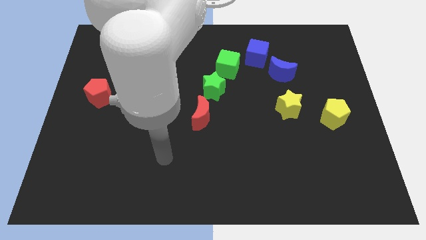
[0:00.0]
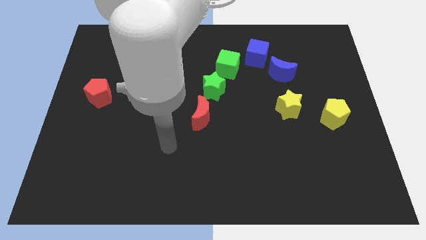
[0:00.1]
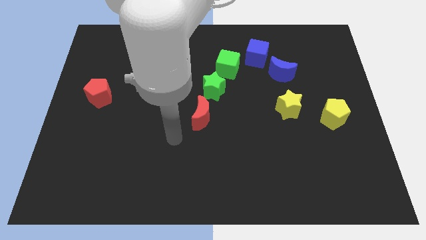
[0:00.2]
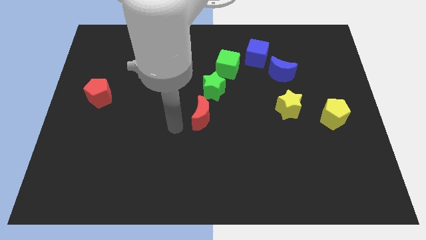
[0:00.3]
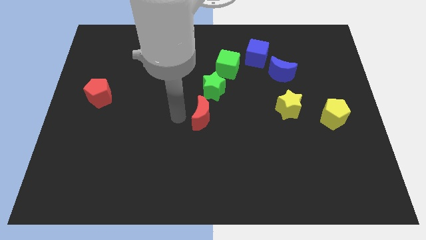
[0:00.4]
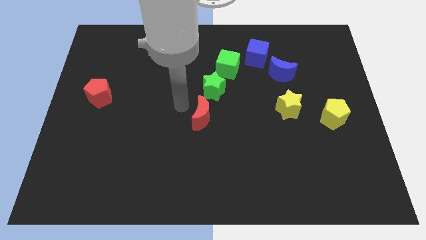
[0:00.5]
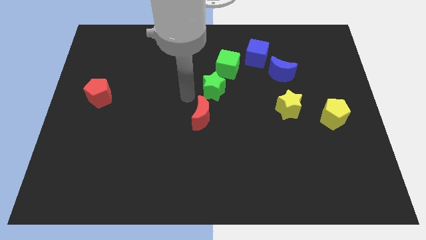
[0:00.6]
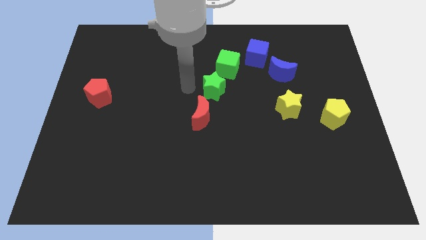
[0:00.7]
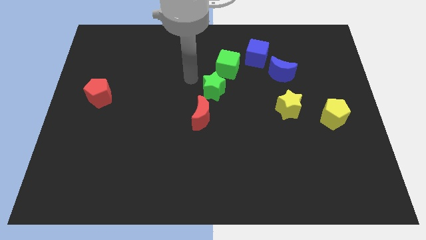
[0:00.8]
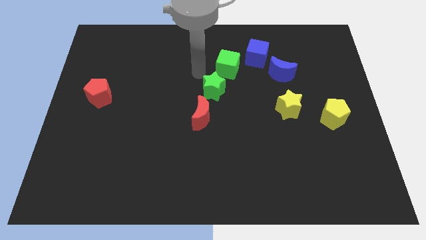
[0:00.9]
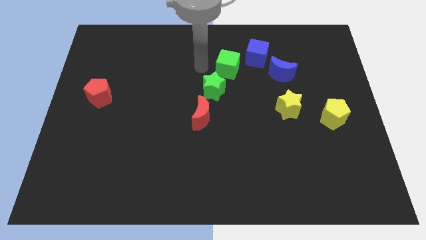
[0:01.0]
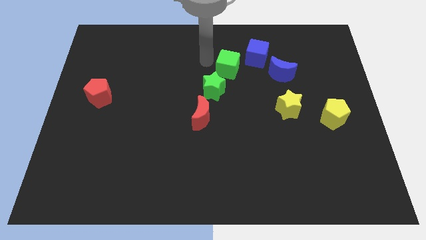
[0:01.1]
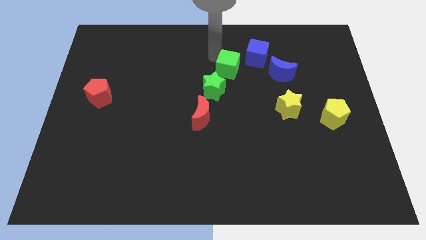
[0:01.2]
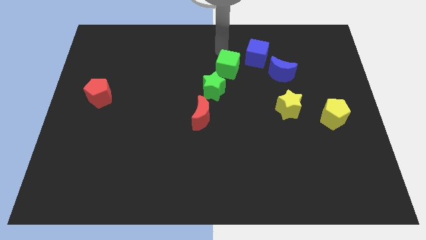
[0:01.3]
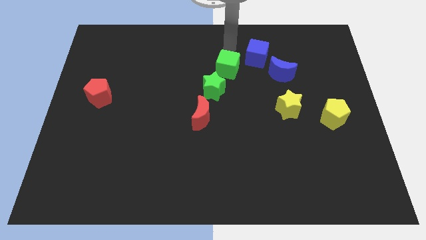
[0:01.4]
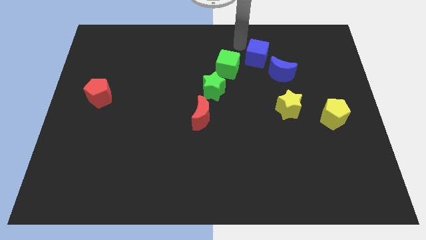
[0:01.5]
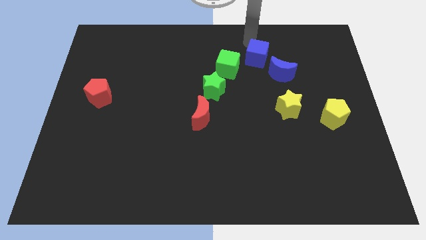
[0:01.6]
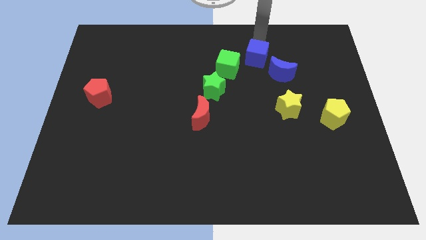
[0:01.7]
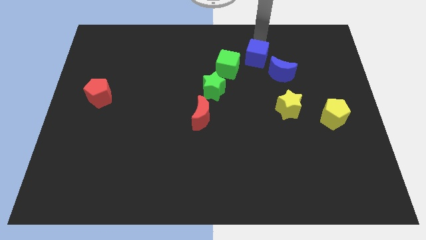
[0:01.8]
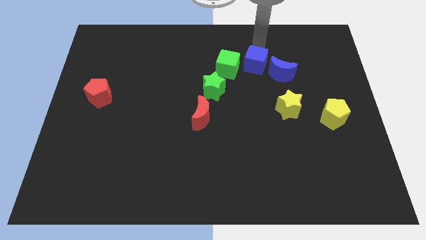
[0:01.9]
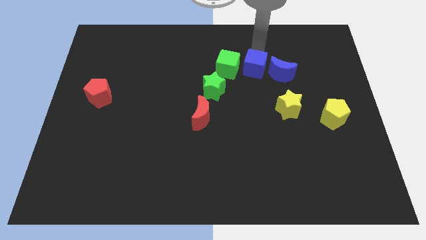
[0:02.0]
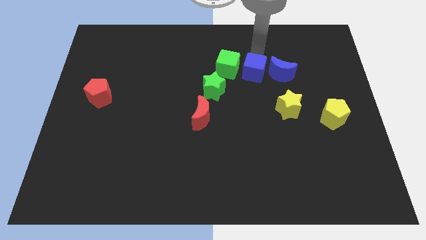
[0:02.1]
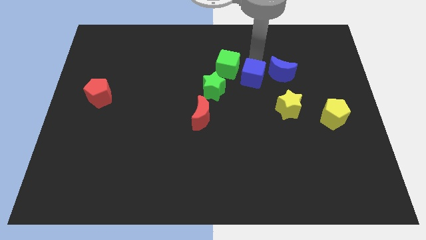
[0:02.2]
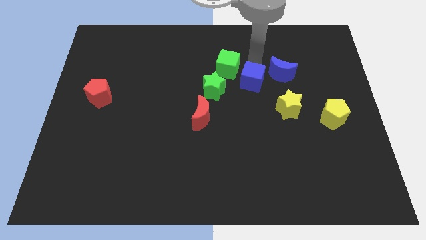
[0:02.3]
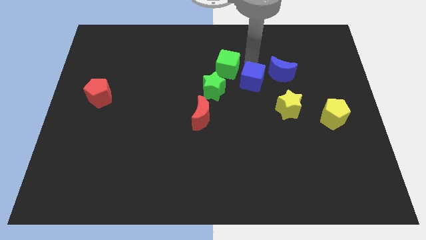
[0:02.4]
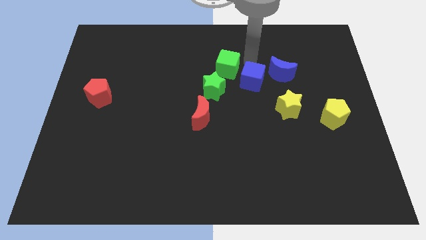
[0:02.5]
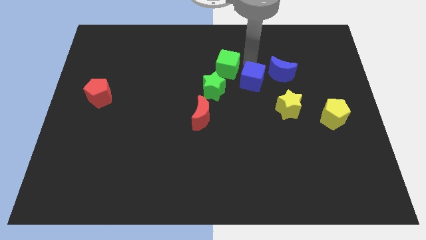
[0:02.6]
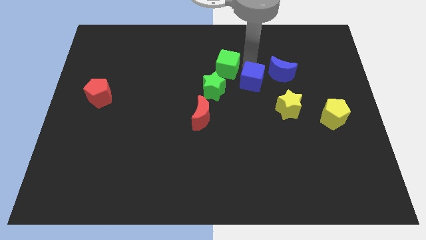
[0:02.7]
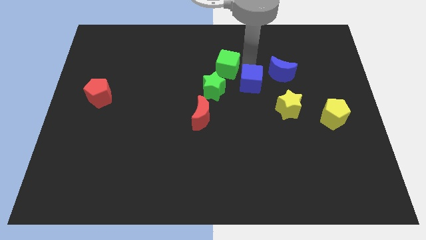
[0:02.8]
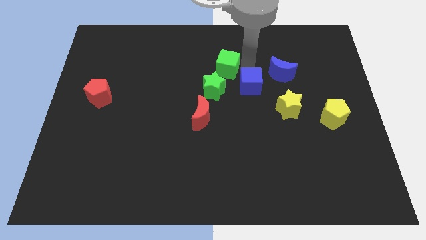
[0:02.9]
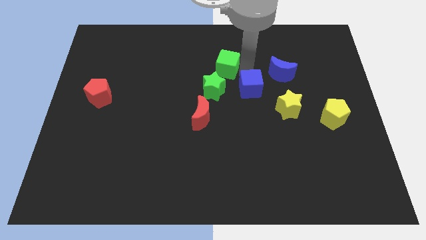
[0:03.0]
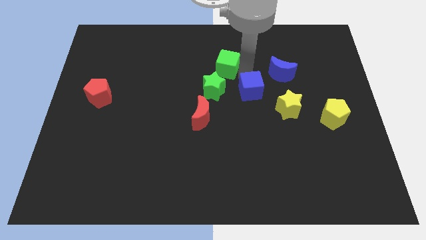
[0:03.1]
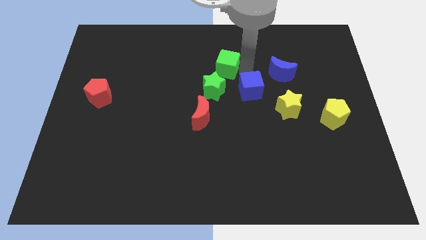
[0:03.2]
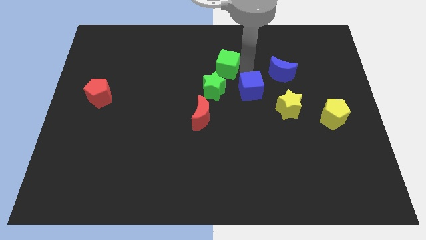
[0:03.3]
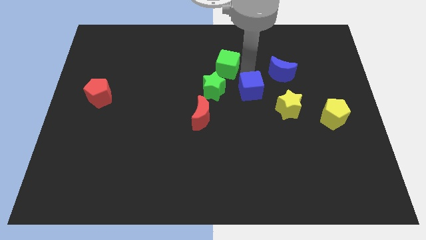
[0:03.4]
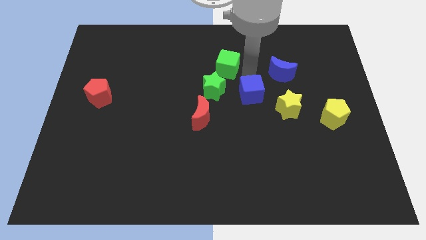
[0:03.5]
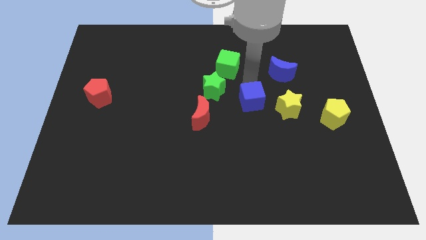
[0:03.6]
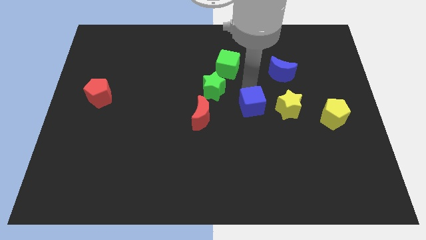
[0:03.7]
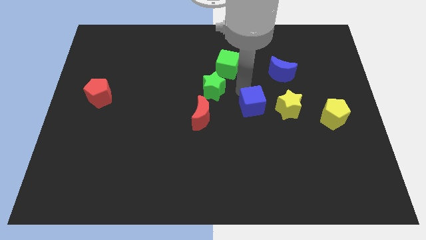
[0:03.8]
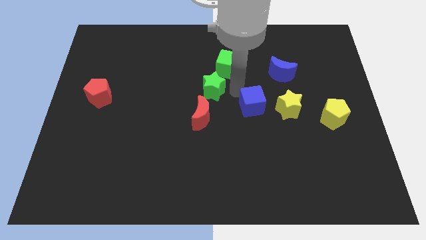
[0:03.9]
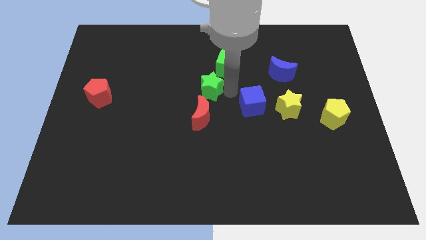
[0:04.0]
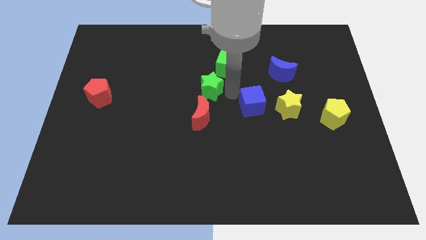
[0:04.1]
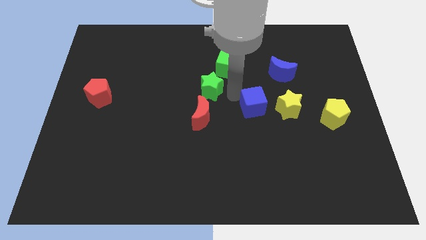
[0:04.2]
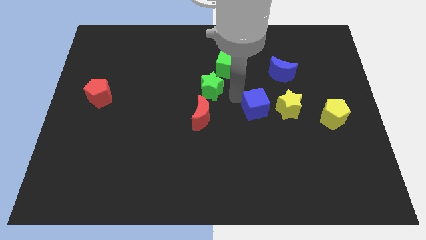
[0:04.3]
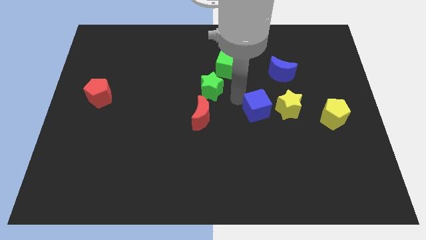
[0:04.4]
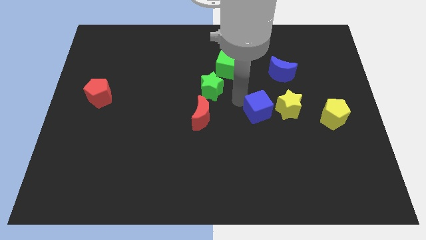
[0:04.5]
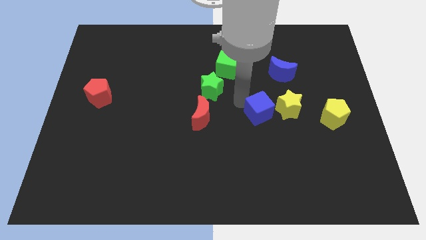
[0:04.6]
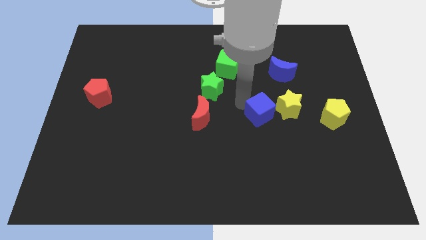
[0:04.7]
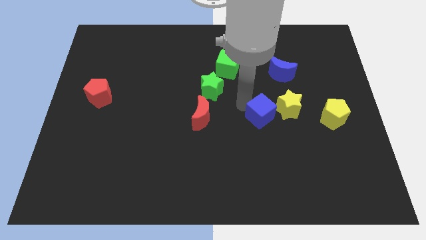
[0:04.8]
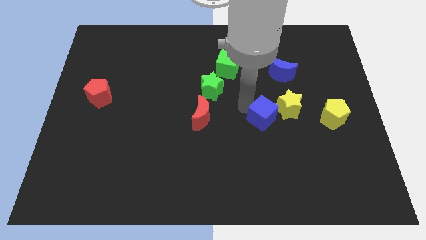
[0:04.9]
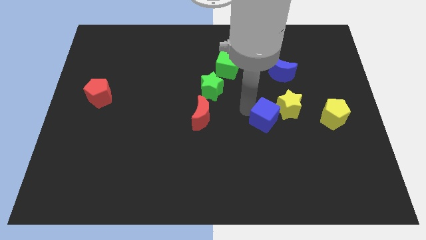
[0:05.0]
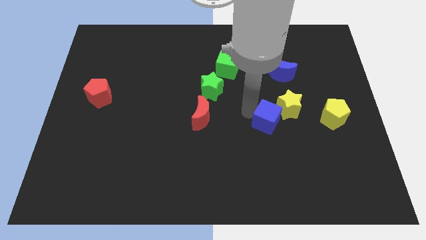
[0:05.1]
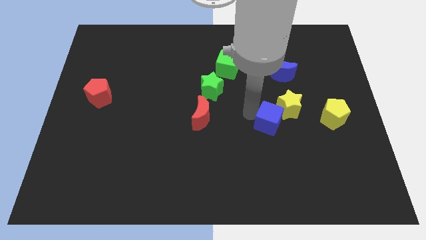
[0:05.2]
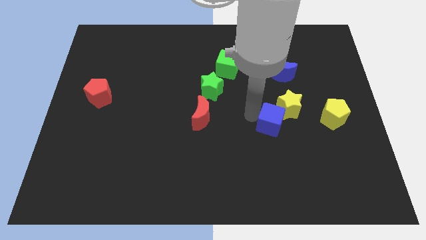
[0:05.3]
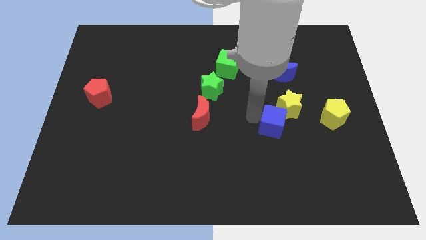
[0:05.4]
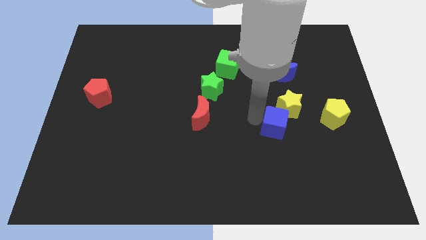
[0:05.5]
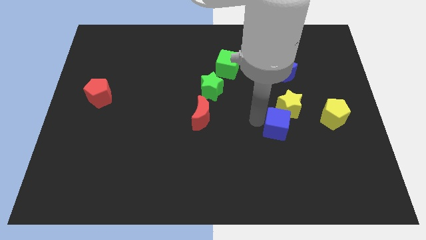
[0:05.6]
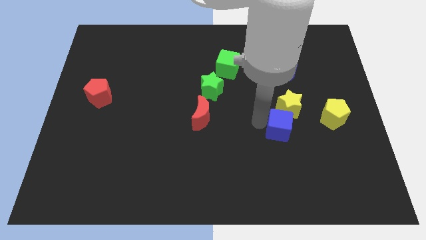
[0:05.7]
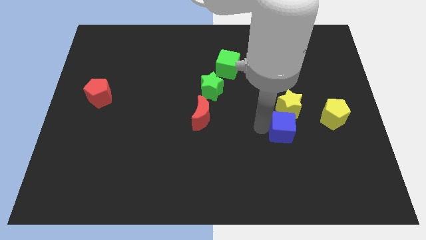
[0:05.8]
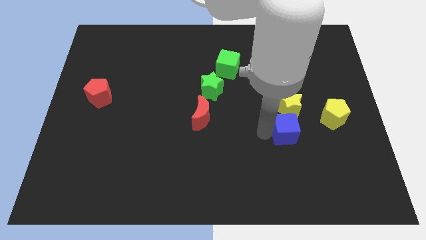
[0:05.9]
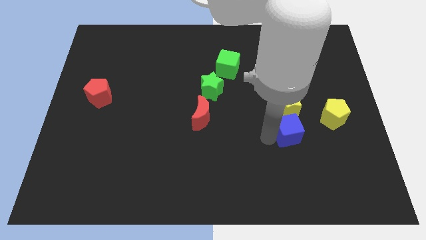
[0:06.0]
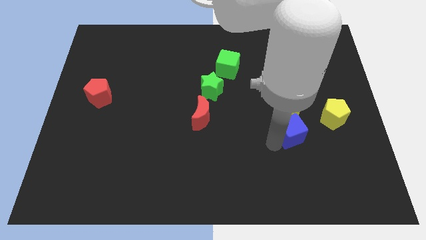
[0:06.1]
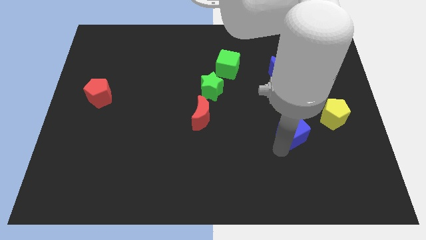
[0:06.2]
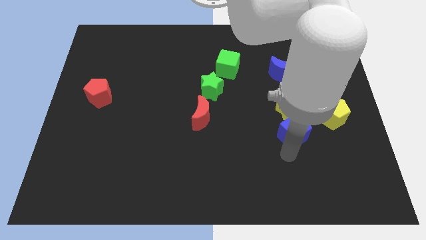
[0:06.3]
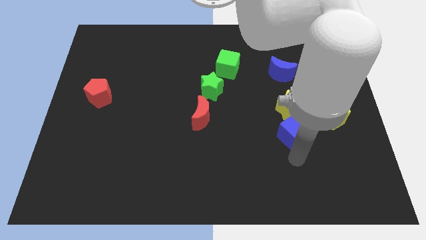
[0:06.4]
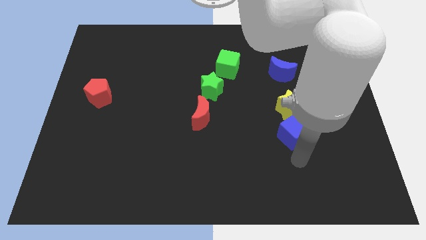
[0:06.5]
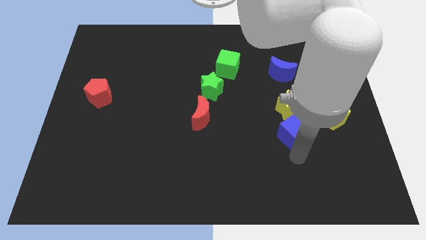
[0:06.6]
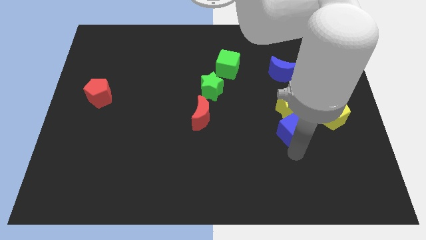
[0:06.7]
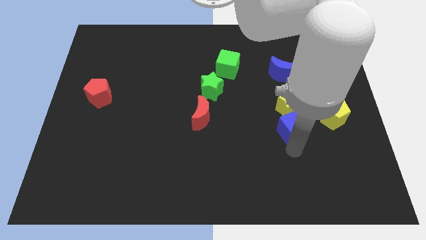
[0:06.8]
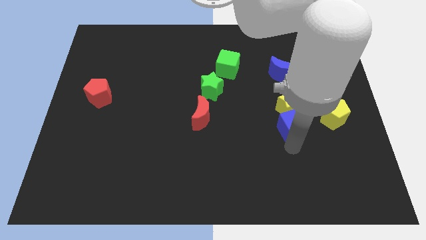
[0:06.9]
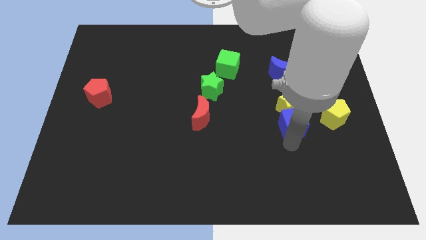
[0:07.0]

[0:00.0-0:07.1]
push the blue cube below the blue moon
